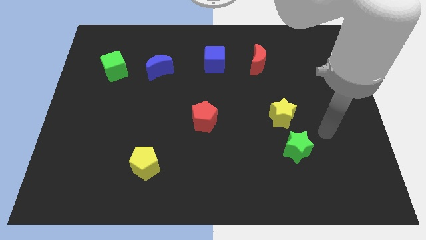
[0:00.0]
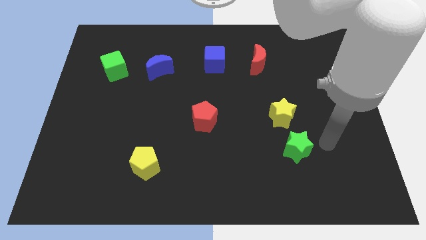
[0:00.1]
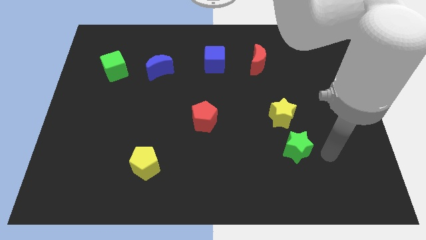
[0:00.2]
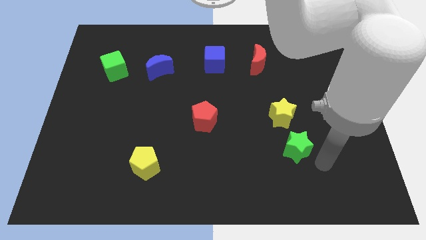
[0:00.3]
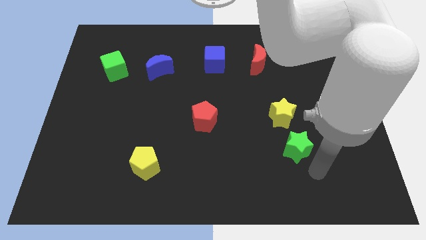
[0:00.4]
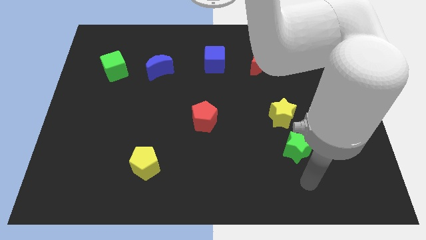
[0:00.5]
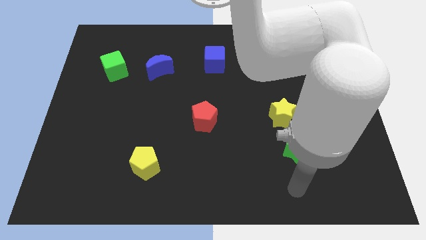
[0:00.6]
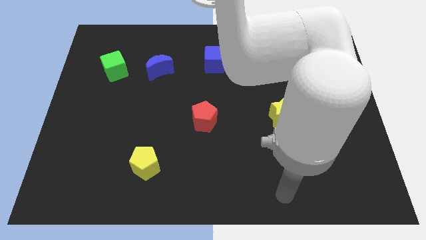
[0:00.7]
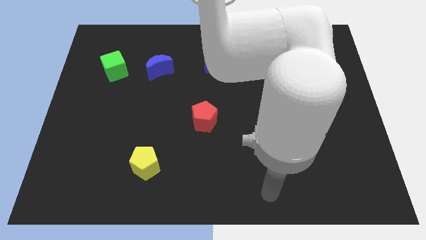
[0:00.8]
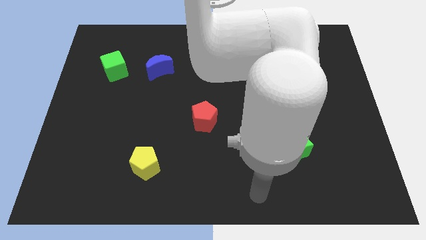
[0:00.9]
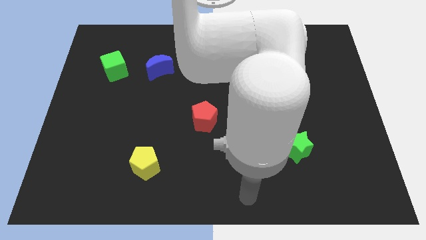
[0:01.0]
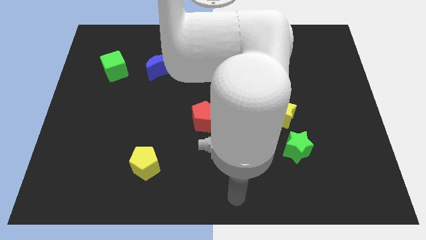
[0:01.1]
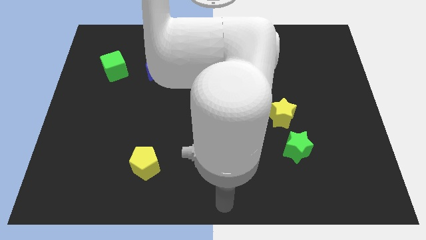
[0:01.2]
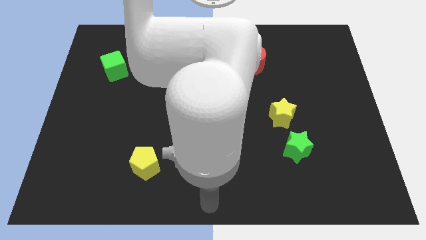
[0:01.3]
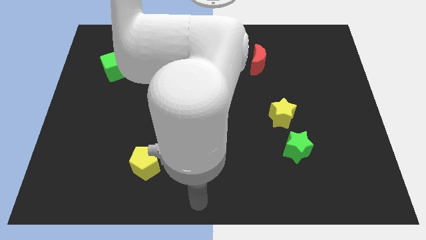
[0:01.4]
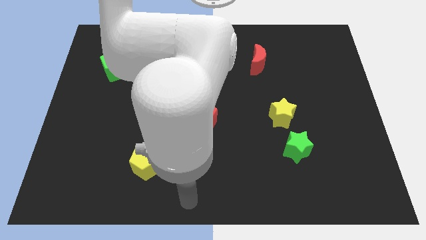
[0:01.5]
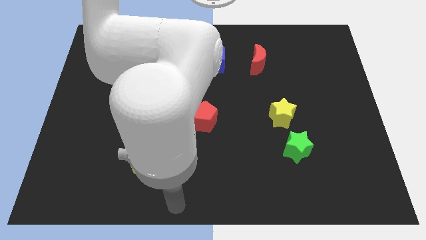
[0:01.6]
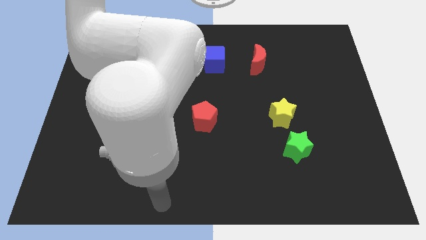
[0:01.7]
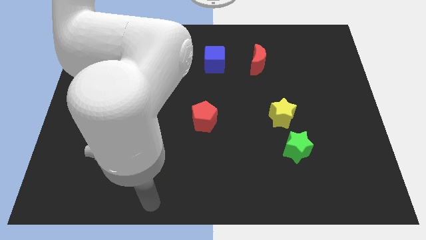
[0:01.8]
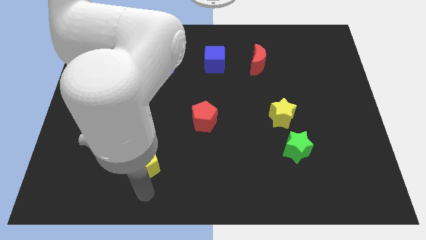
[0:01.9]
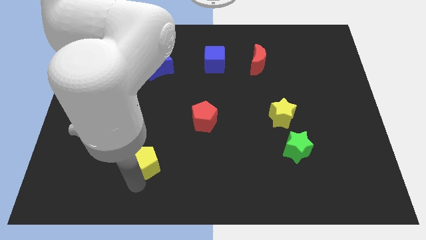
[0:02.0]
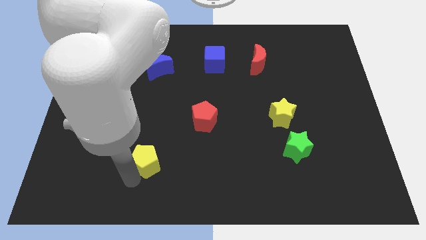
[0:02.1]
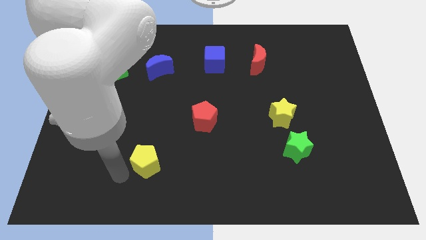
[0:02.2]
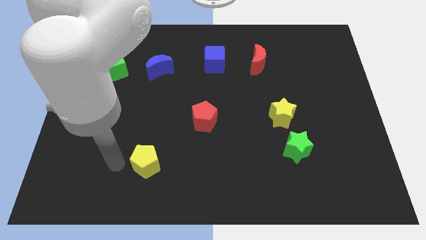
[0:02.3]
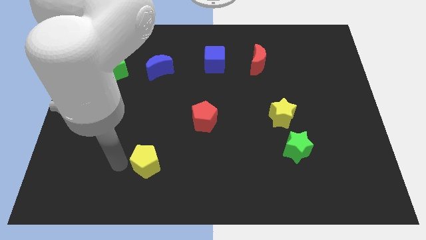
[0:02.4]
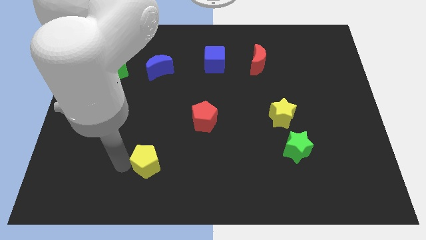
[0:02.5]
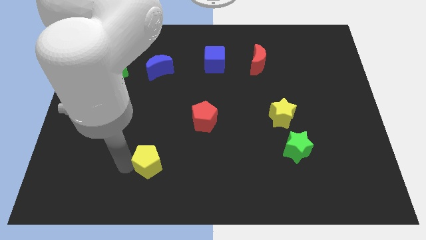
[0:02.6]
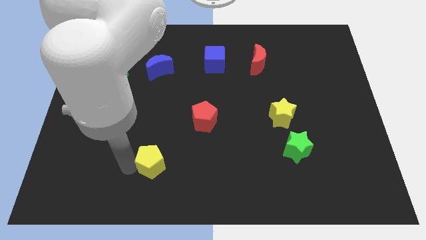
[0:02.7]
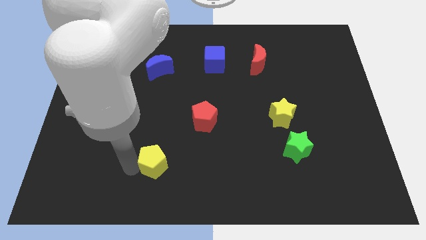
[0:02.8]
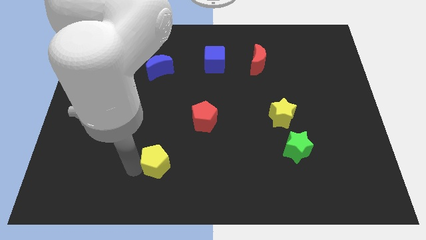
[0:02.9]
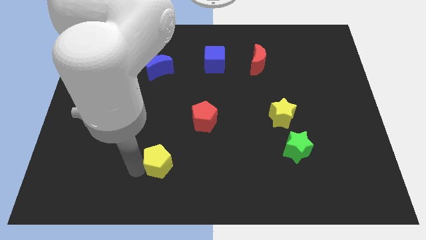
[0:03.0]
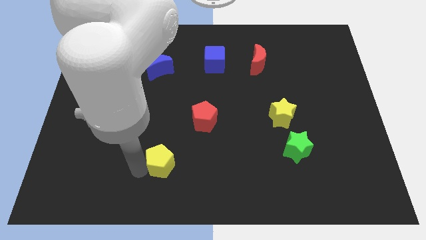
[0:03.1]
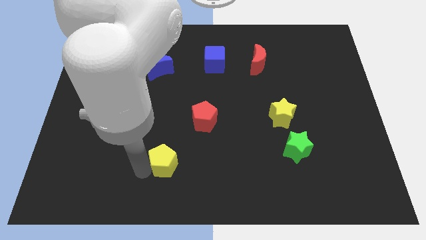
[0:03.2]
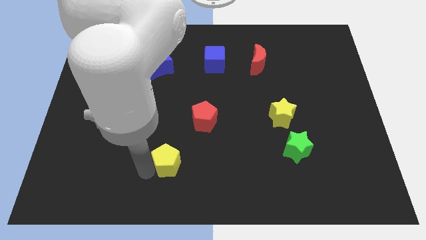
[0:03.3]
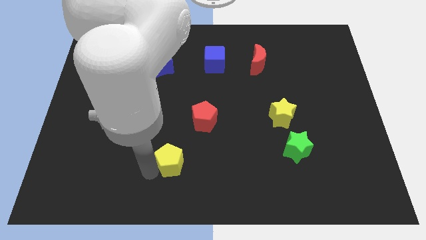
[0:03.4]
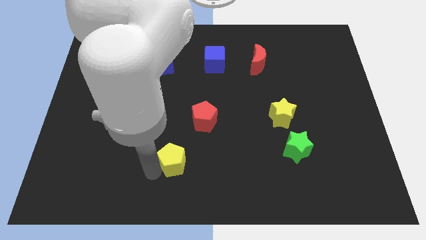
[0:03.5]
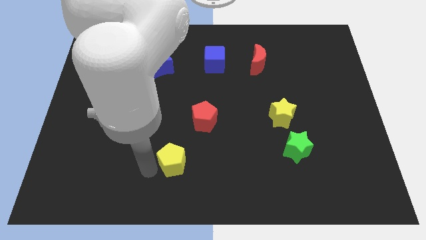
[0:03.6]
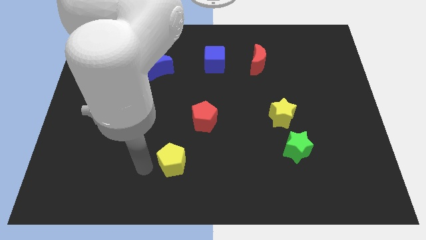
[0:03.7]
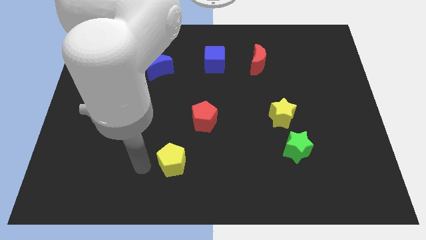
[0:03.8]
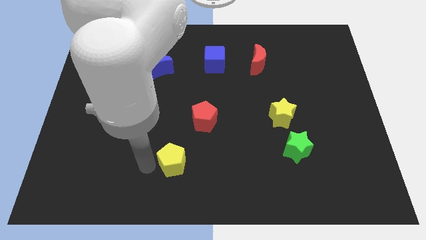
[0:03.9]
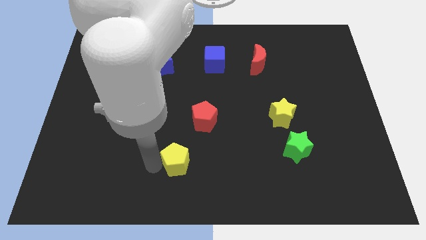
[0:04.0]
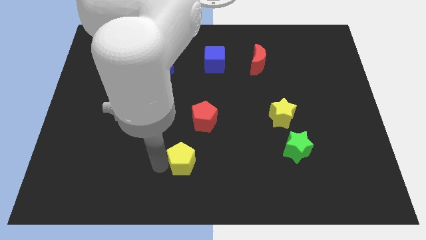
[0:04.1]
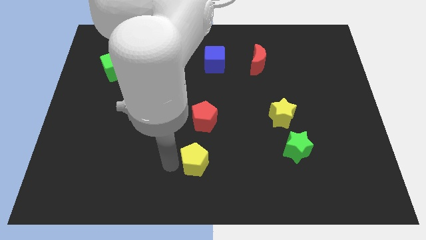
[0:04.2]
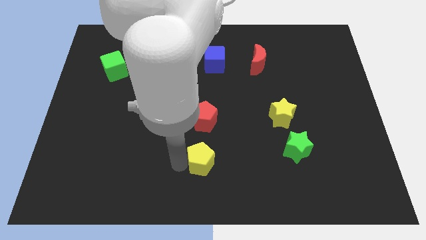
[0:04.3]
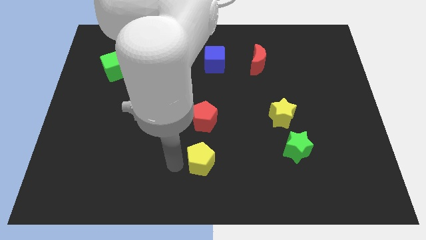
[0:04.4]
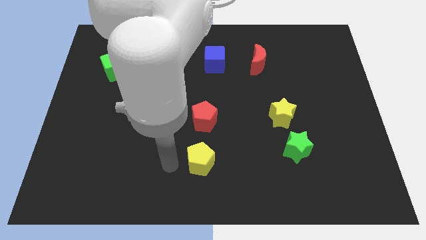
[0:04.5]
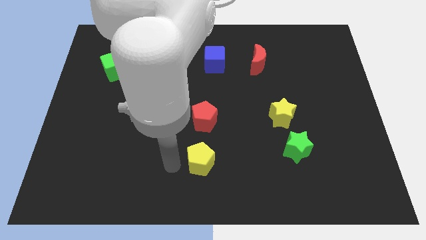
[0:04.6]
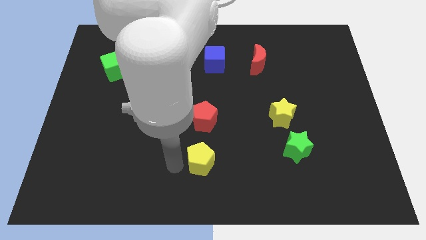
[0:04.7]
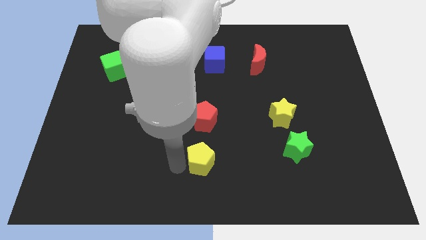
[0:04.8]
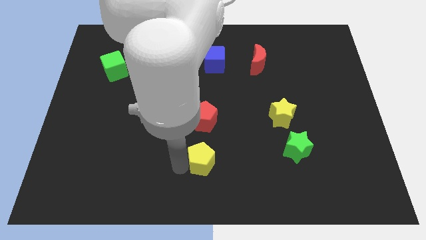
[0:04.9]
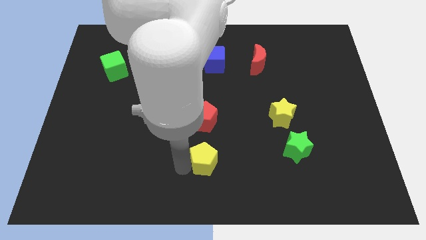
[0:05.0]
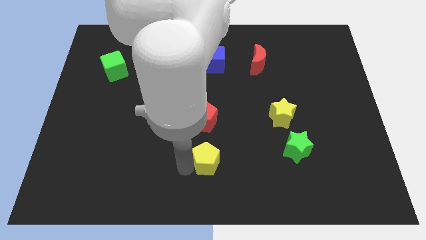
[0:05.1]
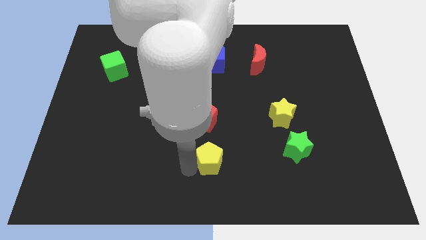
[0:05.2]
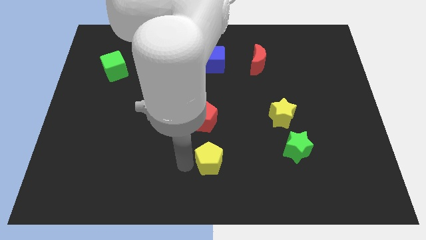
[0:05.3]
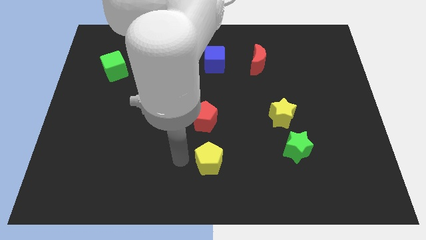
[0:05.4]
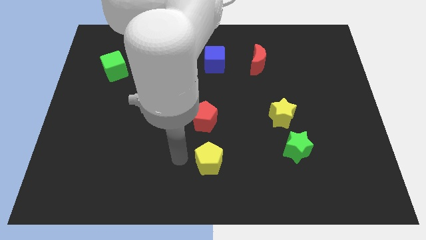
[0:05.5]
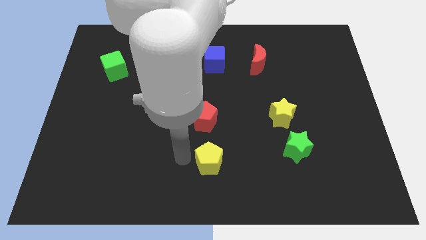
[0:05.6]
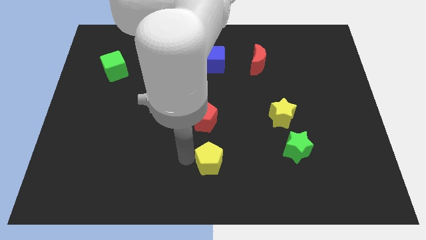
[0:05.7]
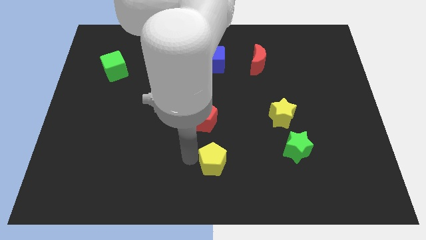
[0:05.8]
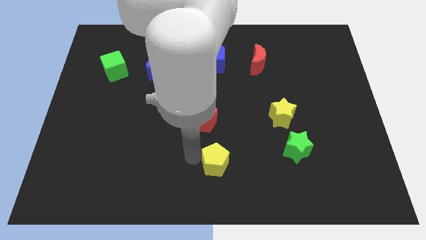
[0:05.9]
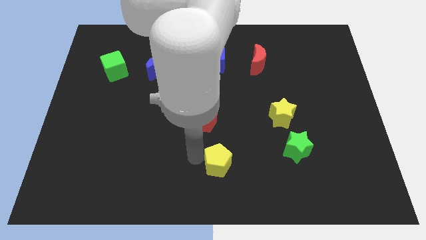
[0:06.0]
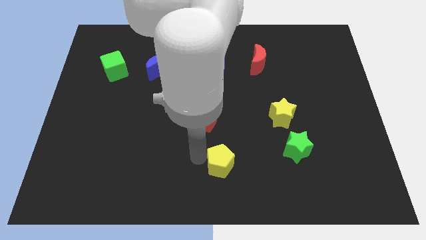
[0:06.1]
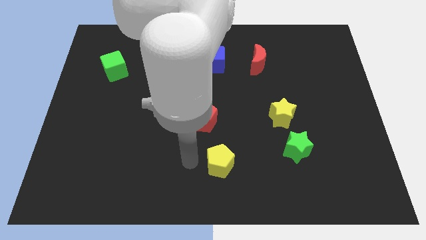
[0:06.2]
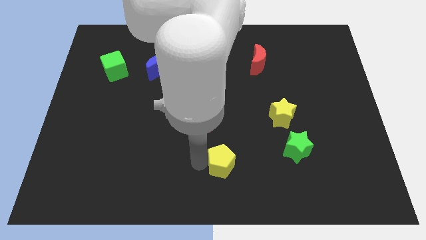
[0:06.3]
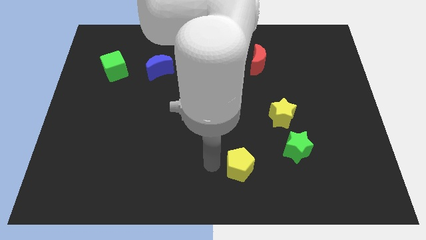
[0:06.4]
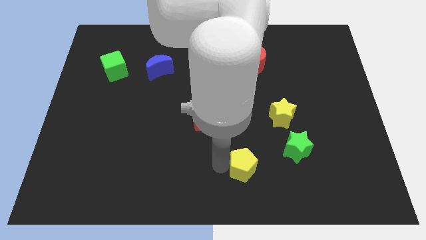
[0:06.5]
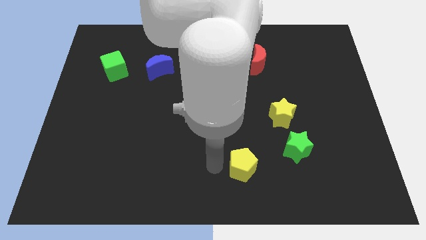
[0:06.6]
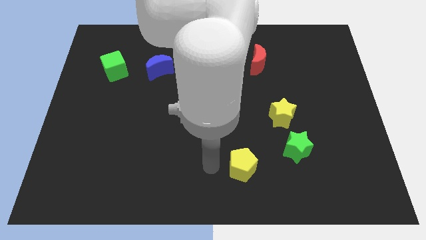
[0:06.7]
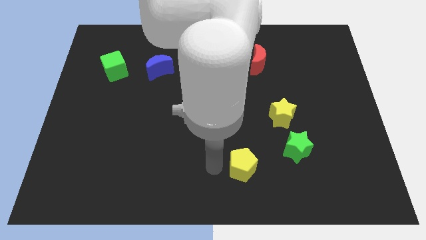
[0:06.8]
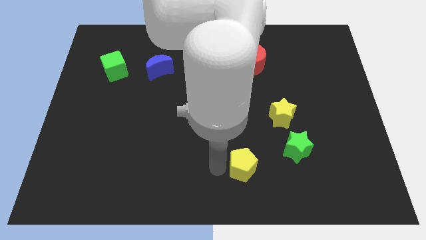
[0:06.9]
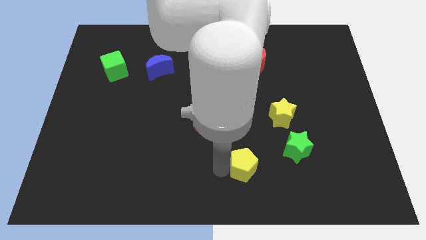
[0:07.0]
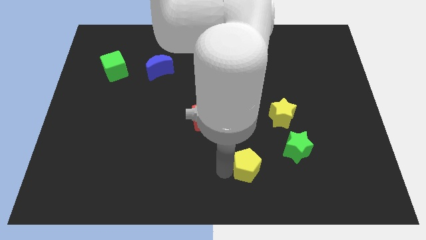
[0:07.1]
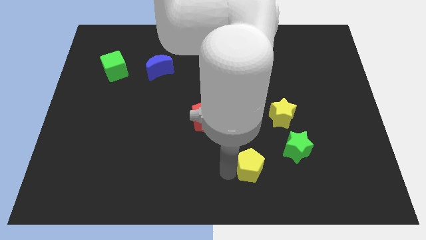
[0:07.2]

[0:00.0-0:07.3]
move the yellow pentagon diagonally down and to the left of the green star
